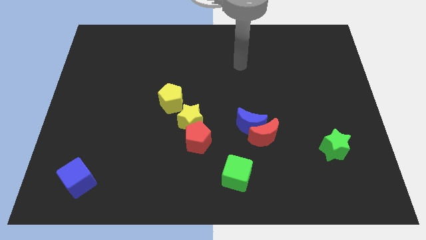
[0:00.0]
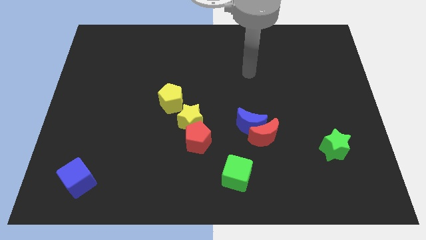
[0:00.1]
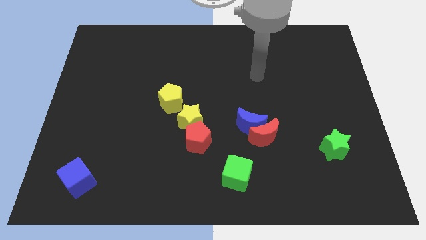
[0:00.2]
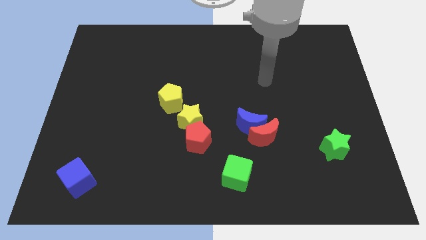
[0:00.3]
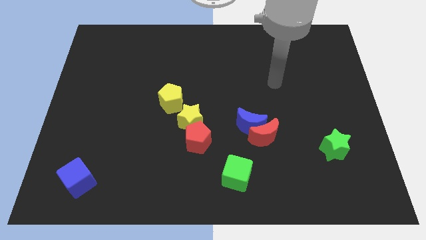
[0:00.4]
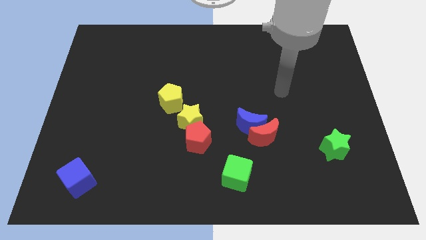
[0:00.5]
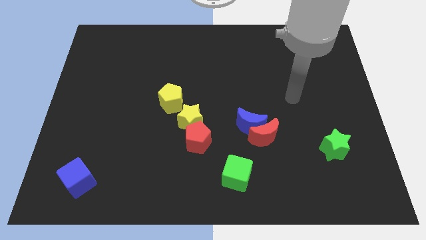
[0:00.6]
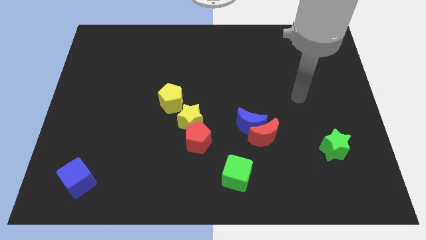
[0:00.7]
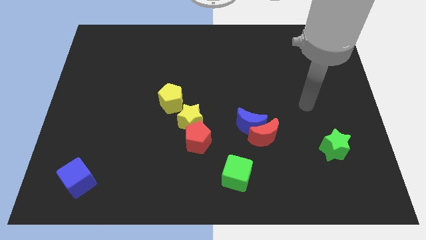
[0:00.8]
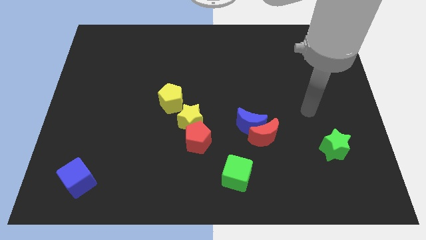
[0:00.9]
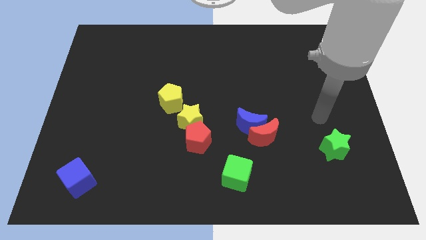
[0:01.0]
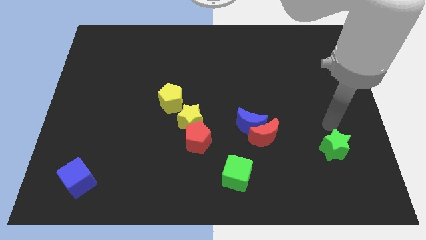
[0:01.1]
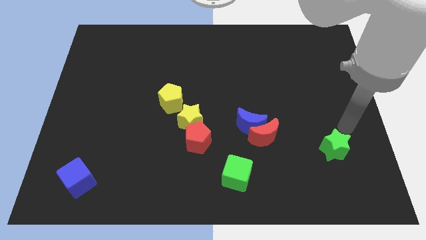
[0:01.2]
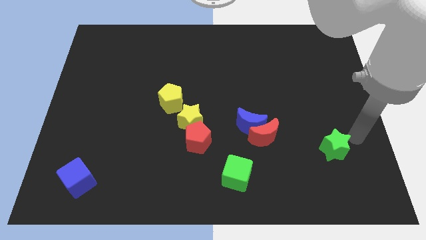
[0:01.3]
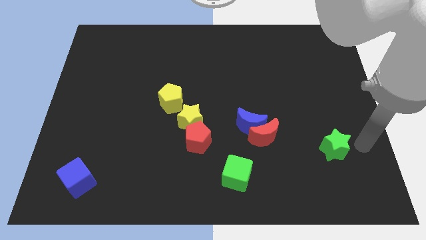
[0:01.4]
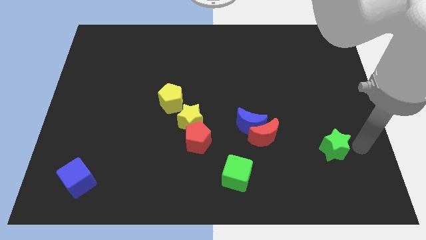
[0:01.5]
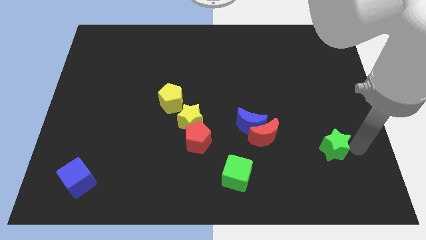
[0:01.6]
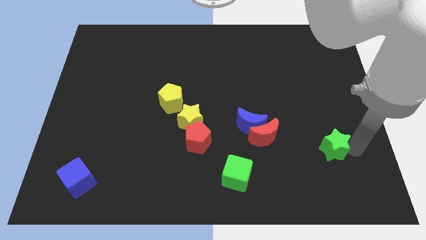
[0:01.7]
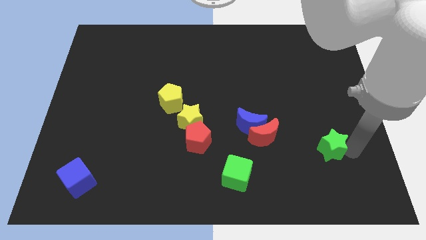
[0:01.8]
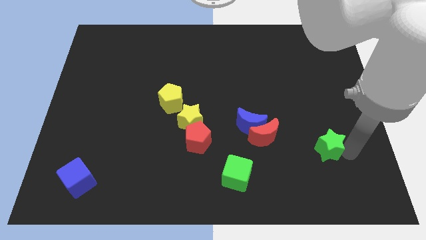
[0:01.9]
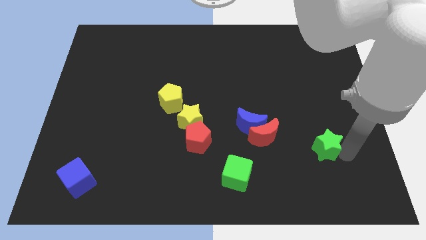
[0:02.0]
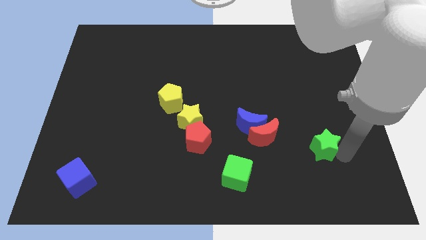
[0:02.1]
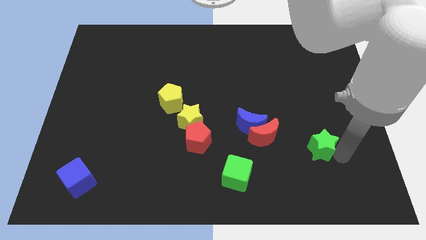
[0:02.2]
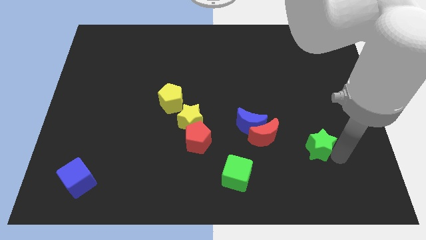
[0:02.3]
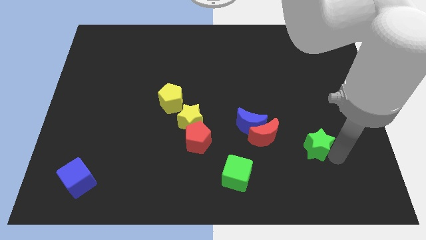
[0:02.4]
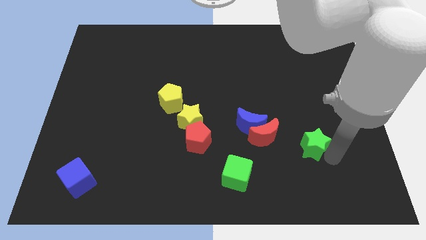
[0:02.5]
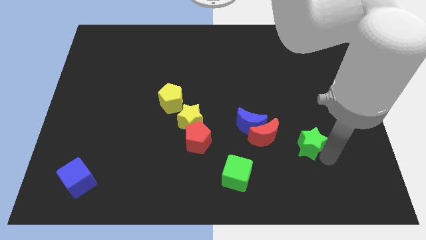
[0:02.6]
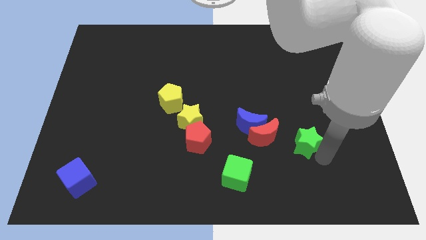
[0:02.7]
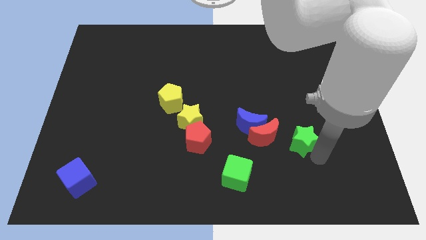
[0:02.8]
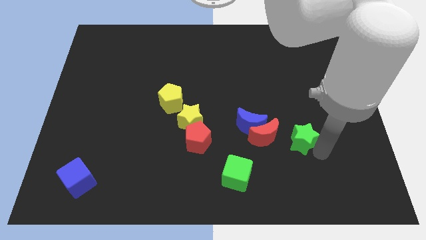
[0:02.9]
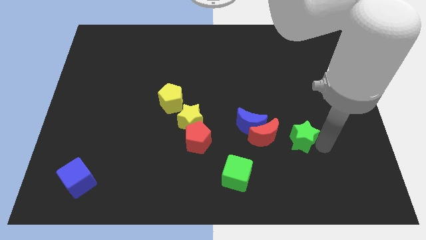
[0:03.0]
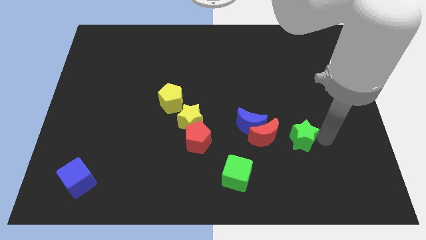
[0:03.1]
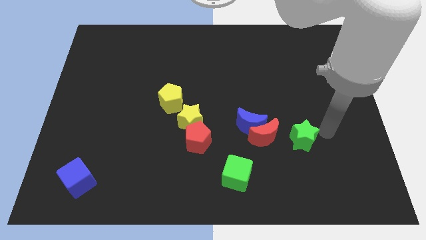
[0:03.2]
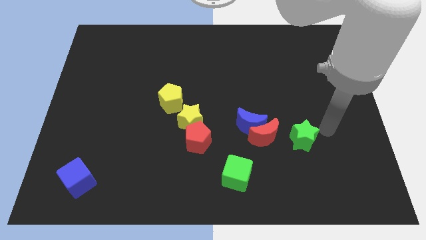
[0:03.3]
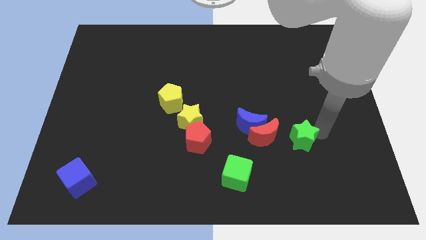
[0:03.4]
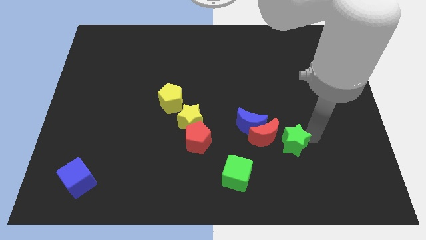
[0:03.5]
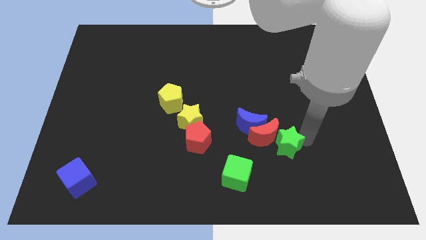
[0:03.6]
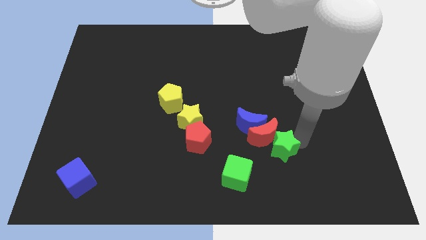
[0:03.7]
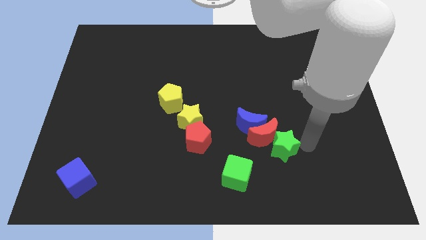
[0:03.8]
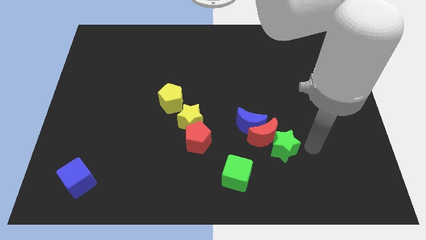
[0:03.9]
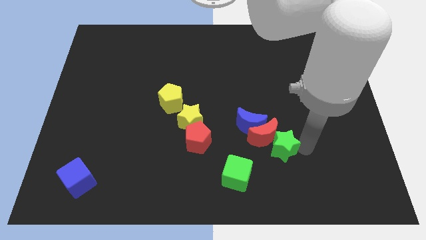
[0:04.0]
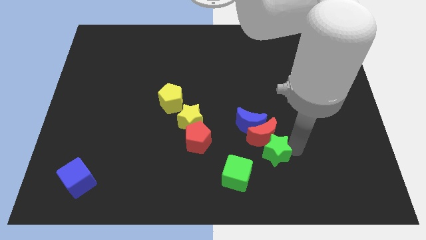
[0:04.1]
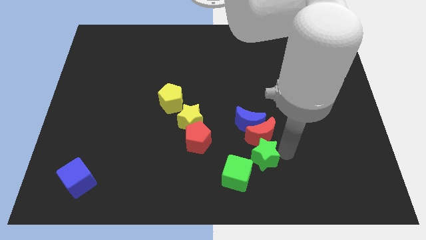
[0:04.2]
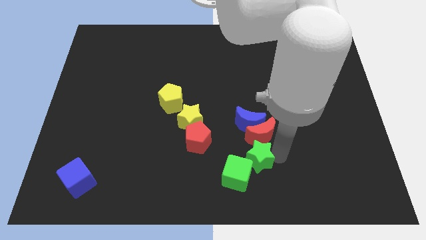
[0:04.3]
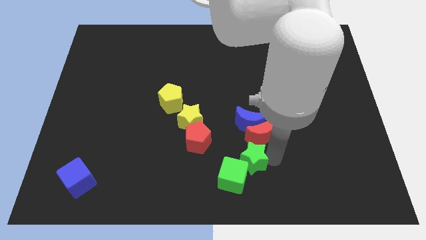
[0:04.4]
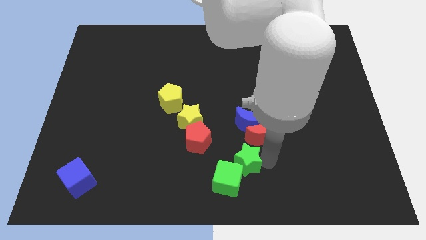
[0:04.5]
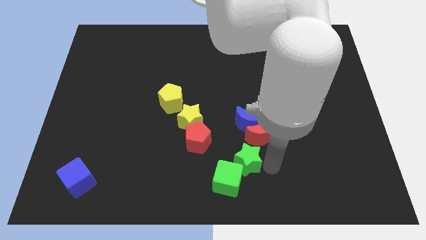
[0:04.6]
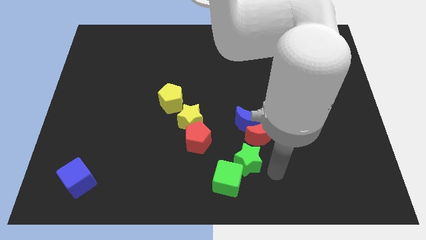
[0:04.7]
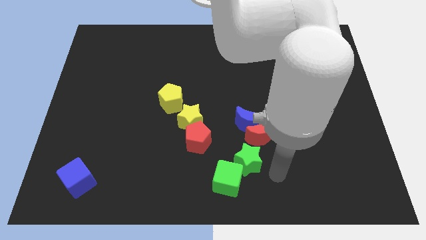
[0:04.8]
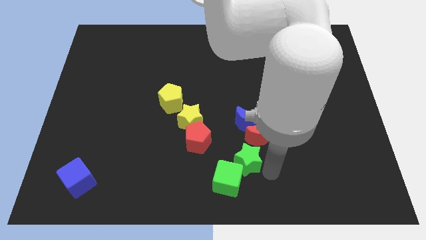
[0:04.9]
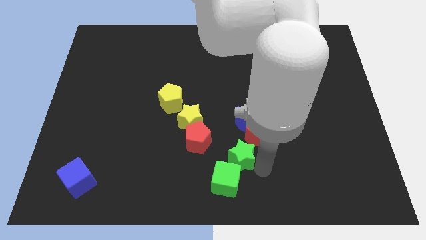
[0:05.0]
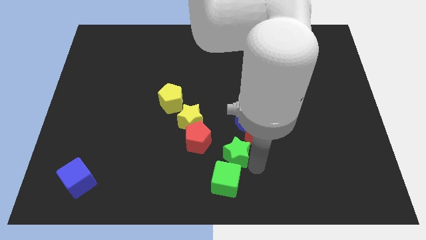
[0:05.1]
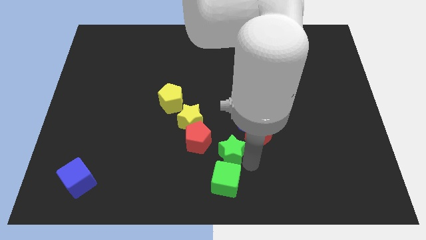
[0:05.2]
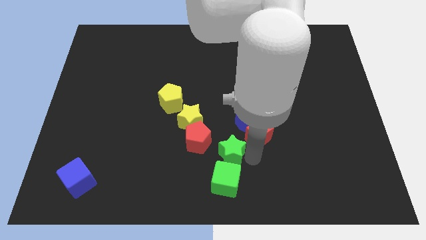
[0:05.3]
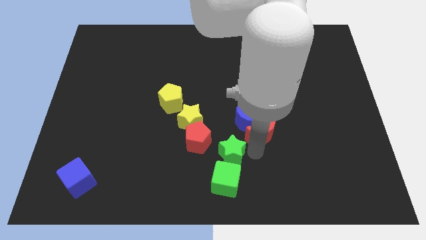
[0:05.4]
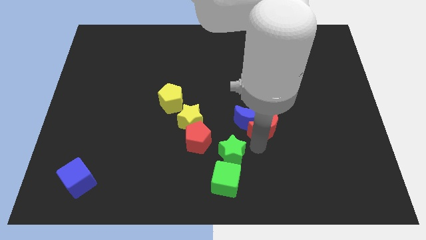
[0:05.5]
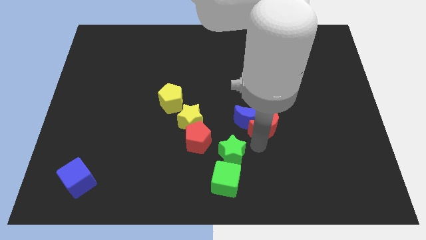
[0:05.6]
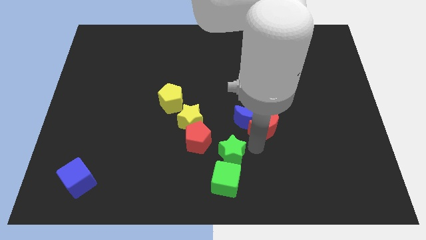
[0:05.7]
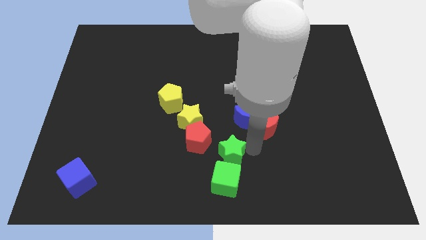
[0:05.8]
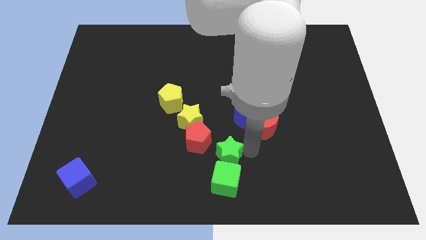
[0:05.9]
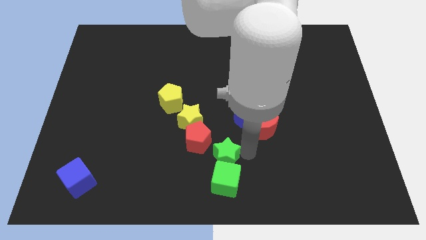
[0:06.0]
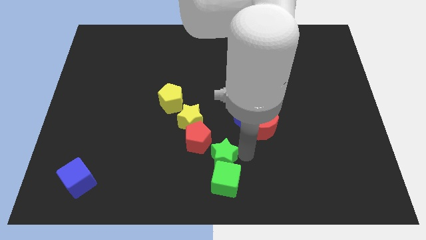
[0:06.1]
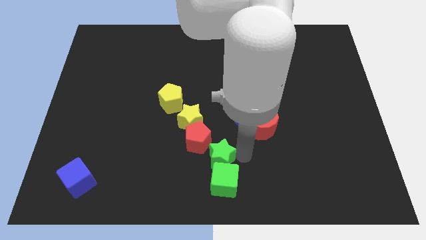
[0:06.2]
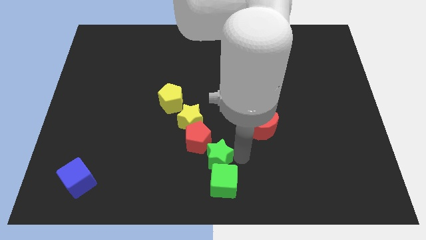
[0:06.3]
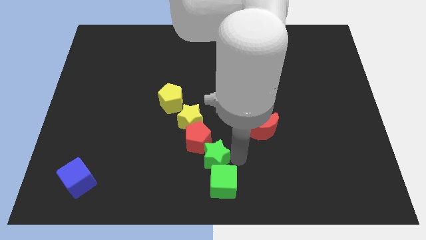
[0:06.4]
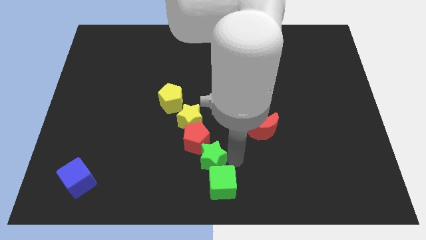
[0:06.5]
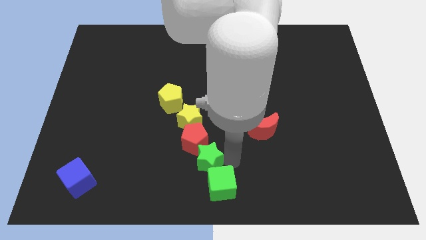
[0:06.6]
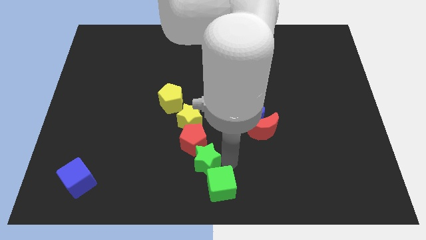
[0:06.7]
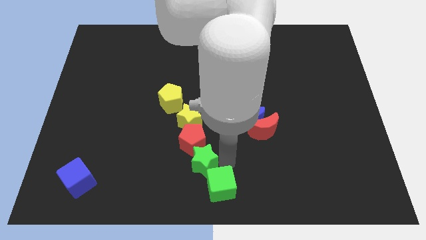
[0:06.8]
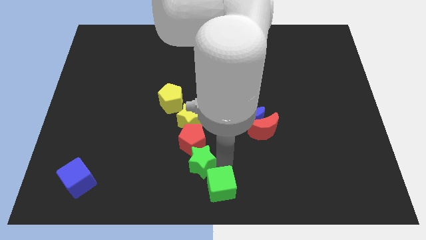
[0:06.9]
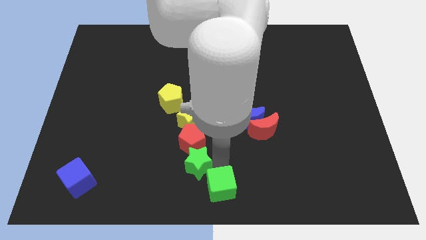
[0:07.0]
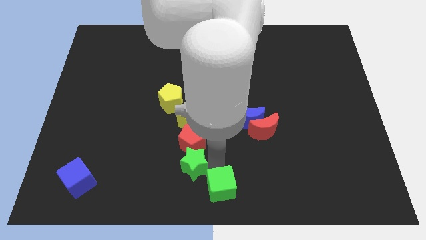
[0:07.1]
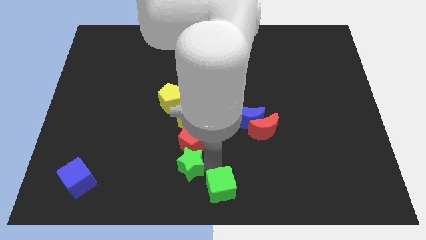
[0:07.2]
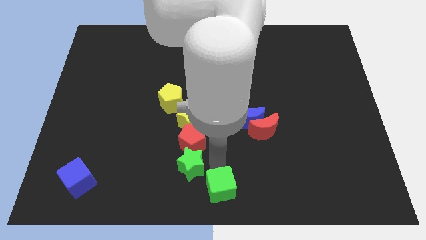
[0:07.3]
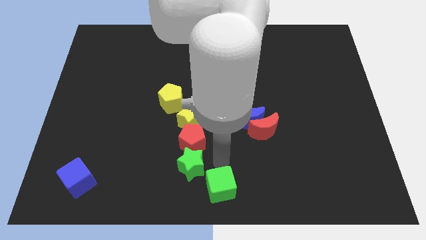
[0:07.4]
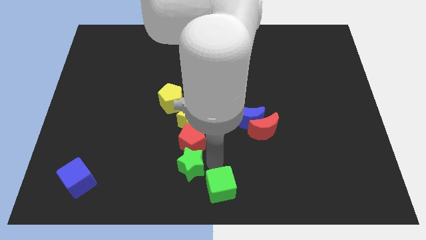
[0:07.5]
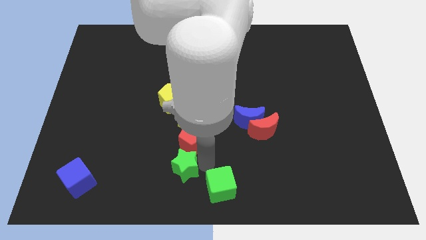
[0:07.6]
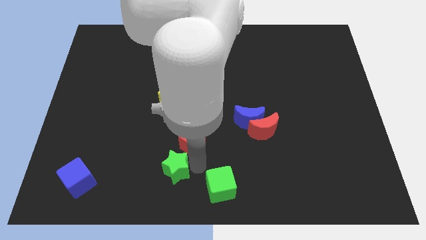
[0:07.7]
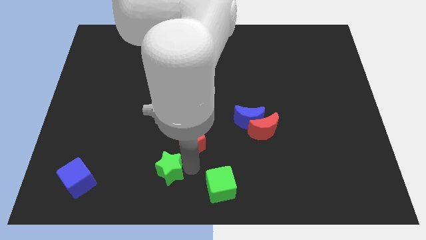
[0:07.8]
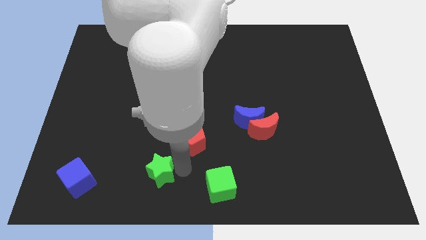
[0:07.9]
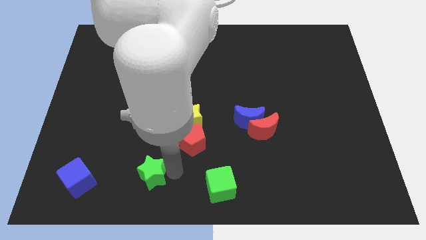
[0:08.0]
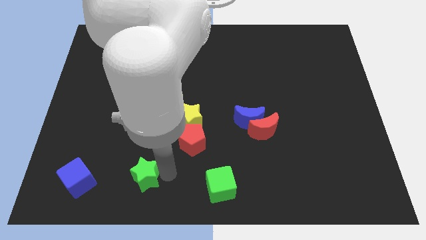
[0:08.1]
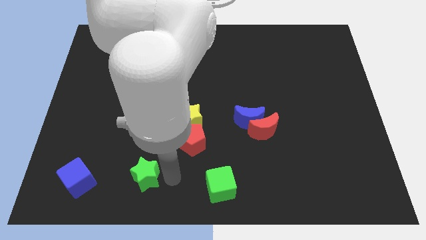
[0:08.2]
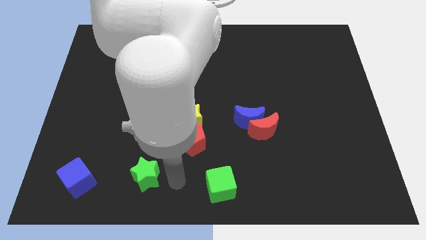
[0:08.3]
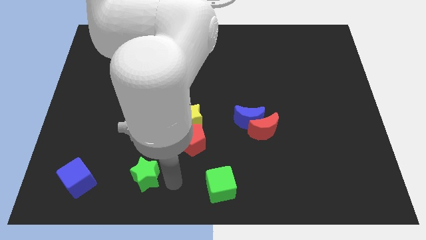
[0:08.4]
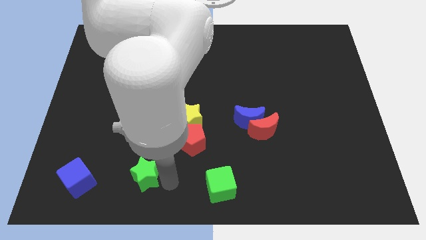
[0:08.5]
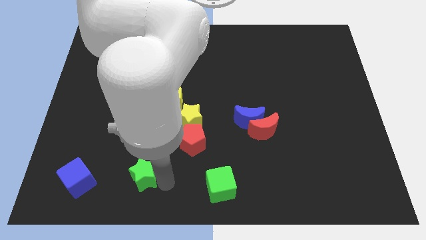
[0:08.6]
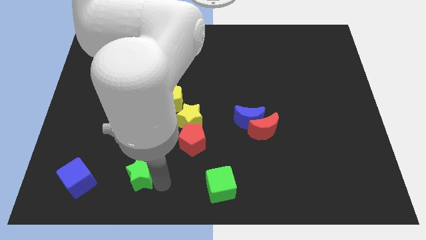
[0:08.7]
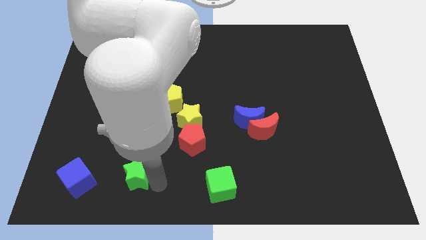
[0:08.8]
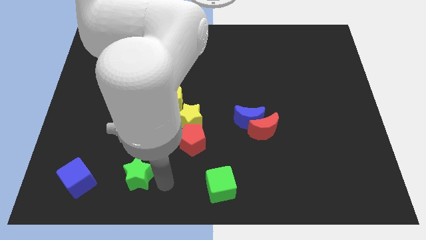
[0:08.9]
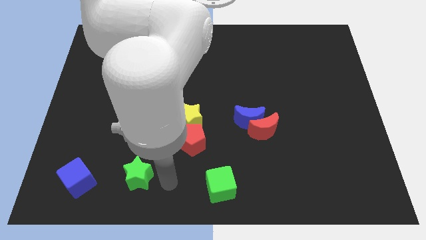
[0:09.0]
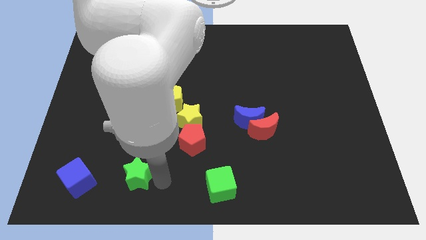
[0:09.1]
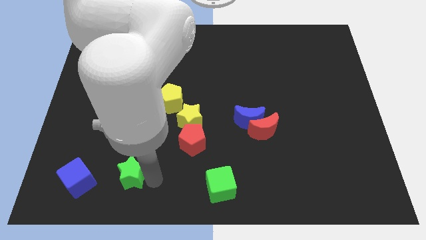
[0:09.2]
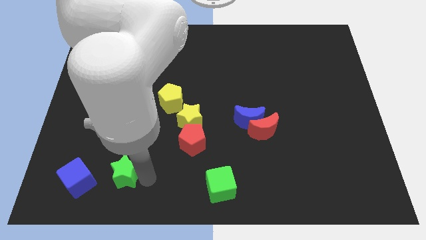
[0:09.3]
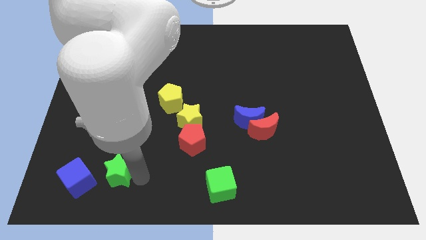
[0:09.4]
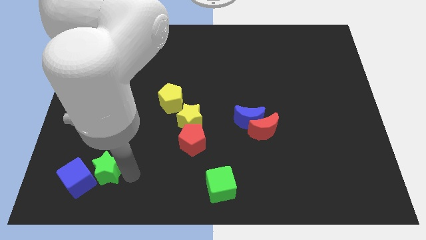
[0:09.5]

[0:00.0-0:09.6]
push the green star to the blue cube
